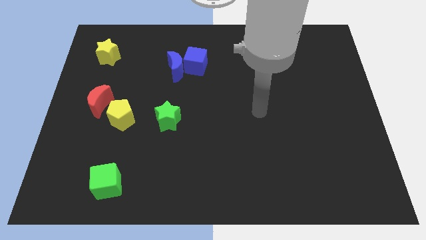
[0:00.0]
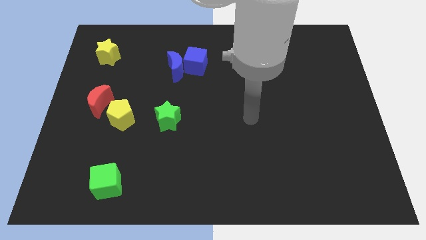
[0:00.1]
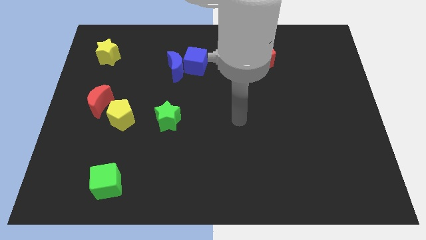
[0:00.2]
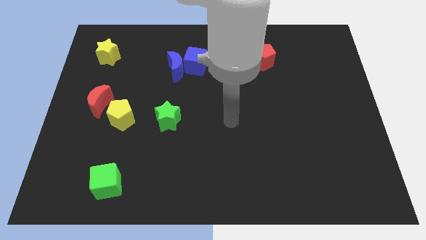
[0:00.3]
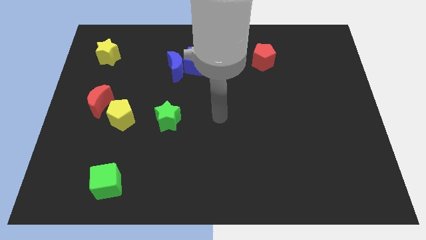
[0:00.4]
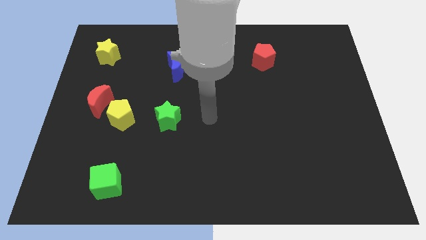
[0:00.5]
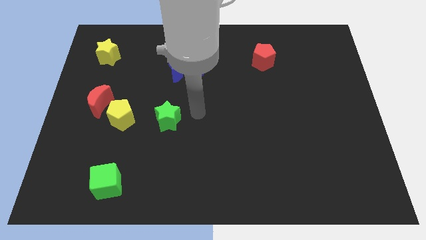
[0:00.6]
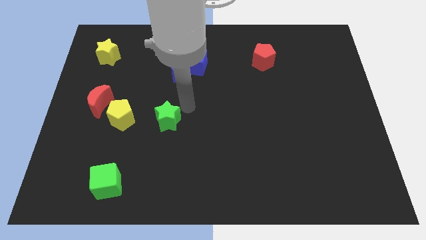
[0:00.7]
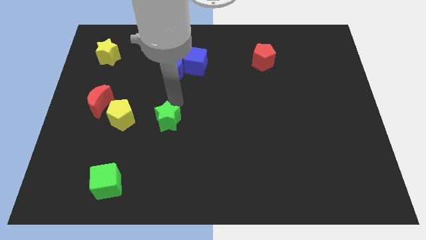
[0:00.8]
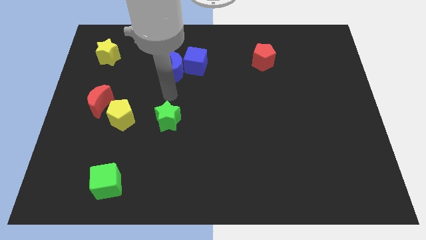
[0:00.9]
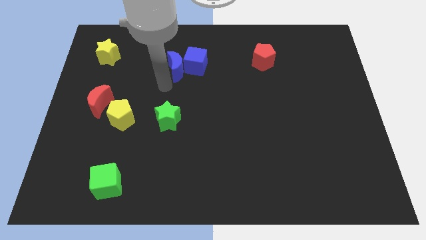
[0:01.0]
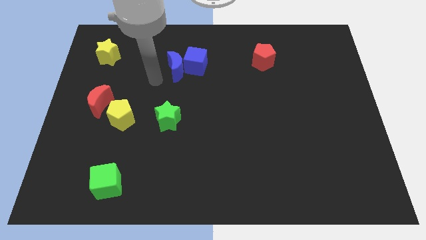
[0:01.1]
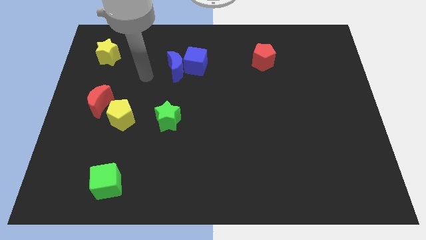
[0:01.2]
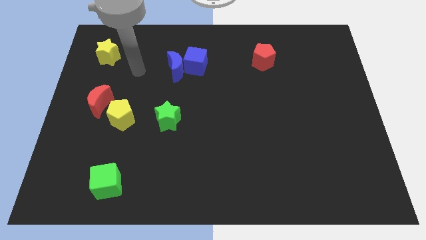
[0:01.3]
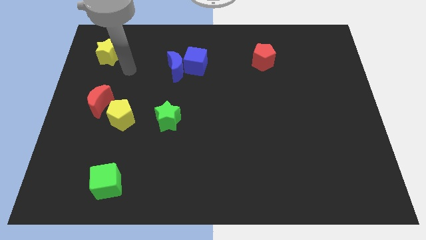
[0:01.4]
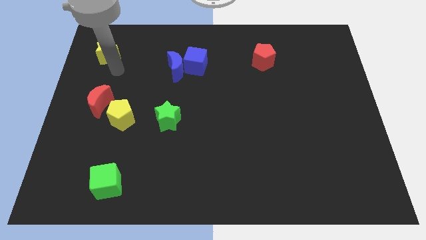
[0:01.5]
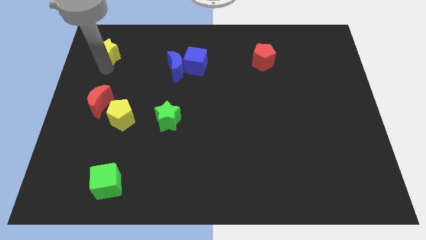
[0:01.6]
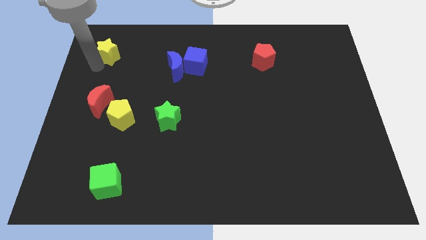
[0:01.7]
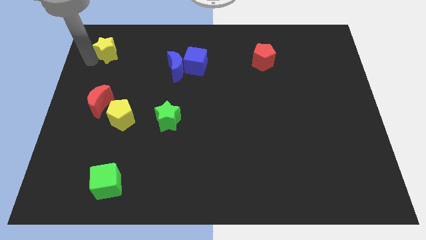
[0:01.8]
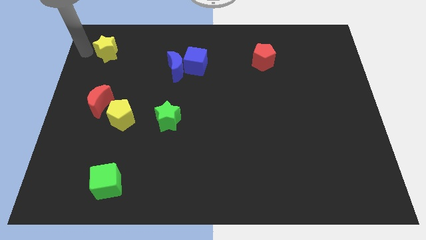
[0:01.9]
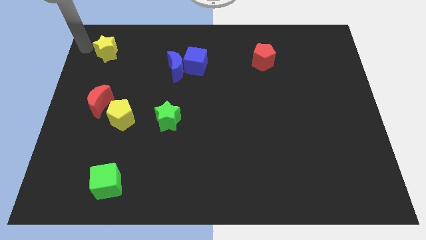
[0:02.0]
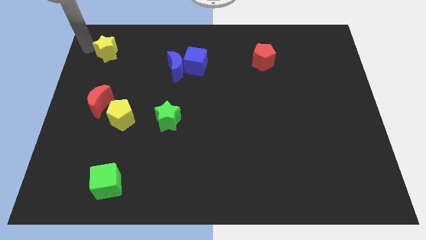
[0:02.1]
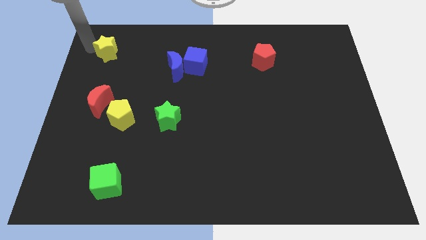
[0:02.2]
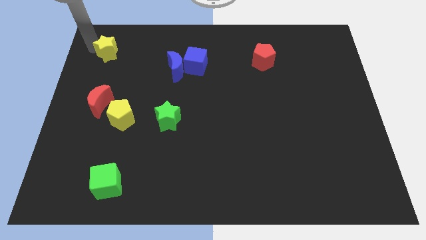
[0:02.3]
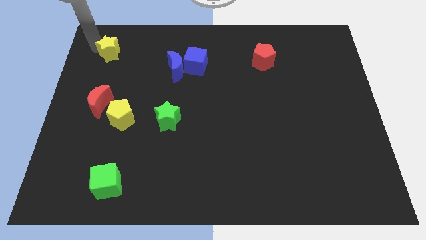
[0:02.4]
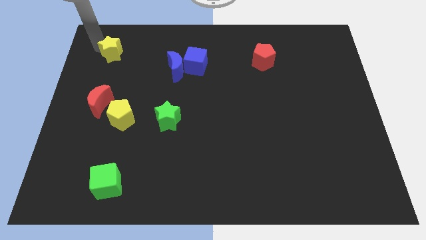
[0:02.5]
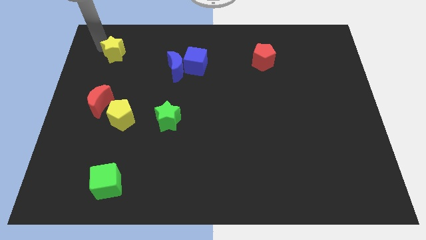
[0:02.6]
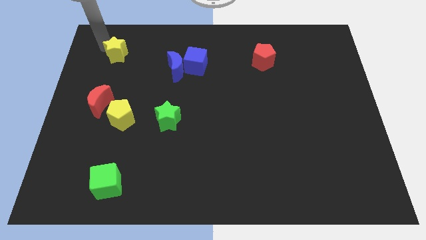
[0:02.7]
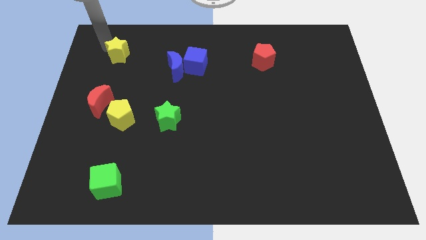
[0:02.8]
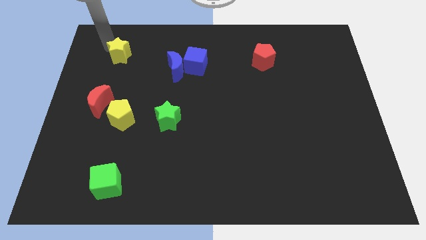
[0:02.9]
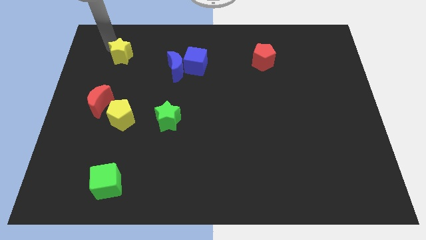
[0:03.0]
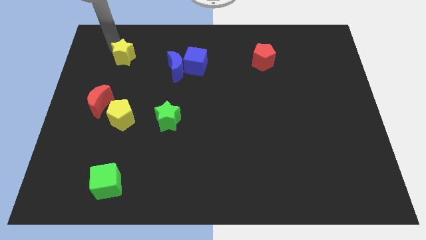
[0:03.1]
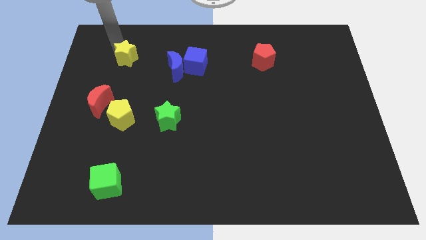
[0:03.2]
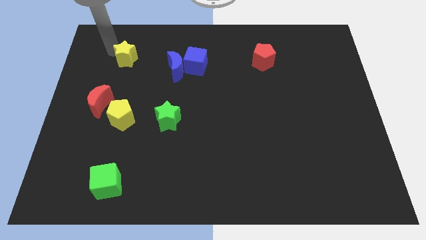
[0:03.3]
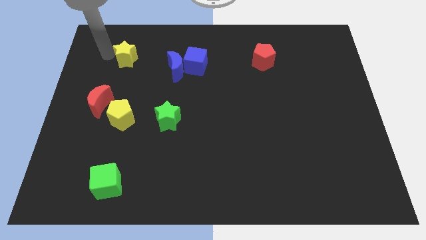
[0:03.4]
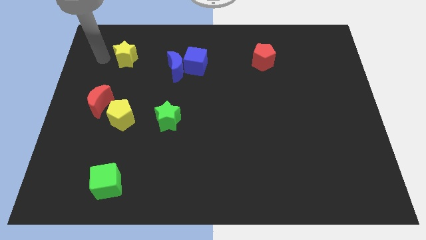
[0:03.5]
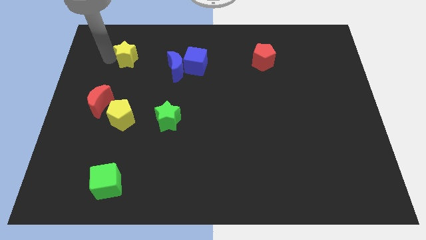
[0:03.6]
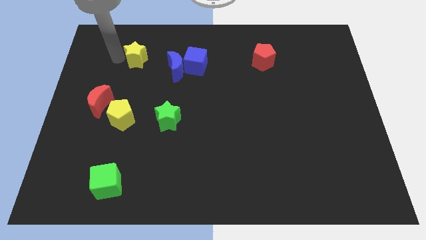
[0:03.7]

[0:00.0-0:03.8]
slide the yellow star to the right slightly

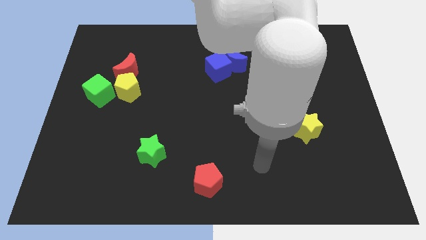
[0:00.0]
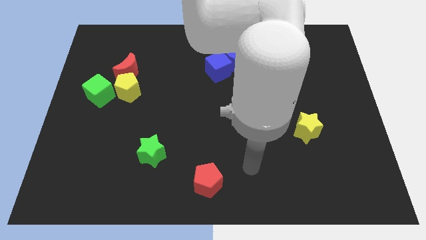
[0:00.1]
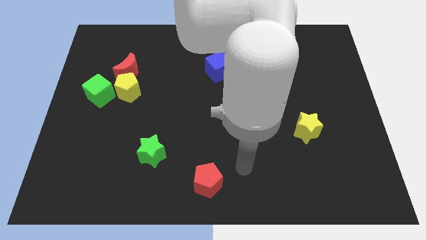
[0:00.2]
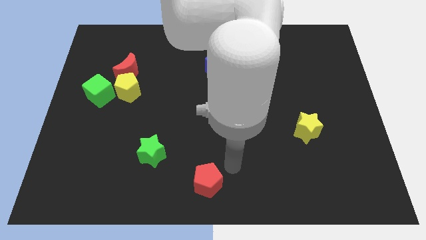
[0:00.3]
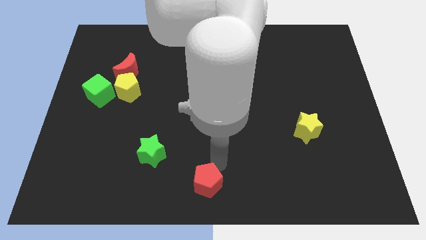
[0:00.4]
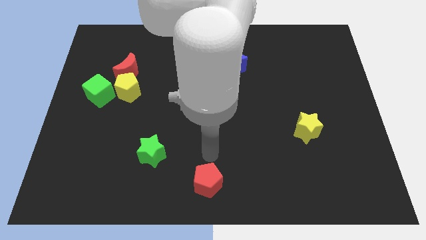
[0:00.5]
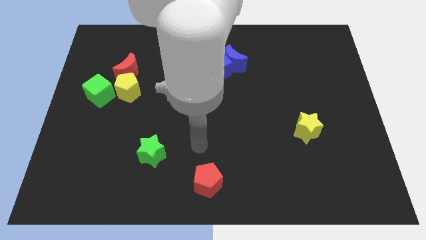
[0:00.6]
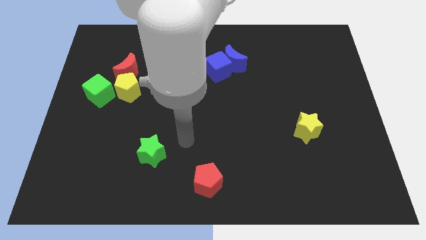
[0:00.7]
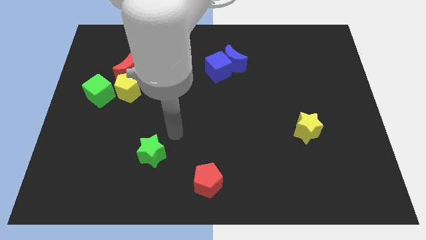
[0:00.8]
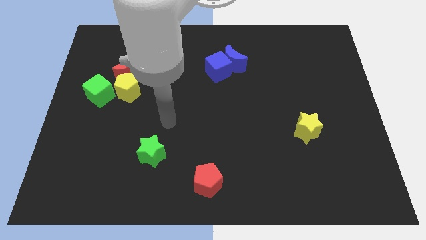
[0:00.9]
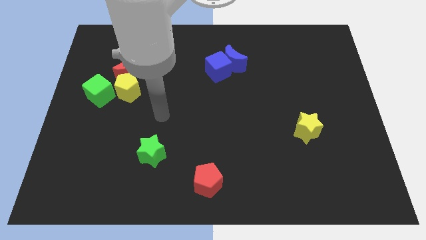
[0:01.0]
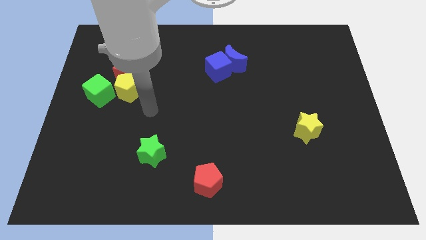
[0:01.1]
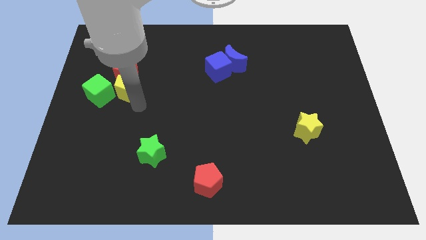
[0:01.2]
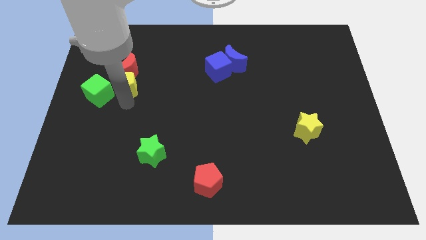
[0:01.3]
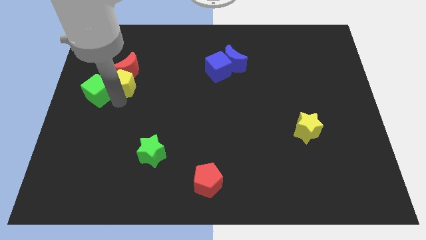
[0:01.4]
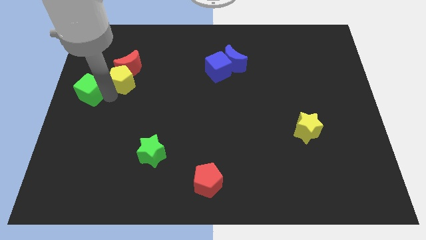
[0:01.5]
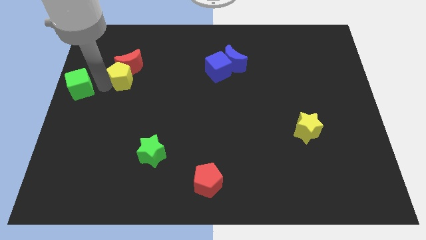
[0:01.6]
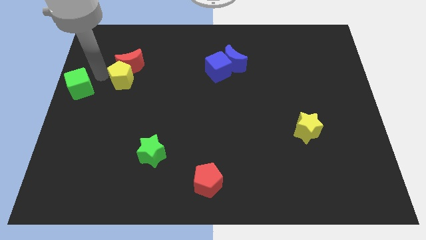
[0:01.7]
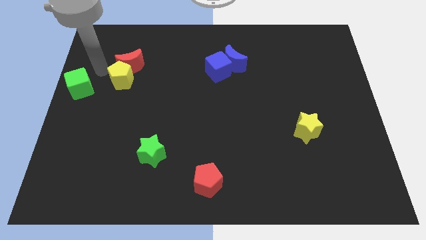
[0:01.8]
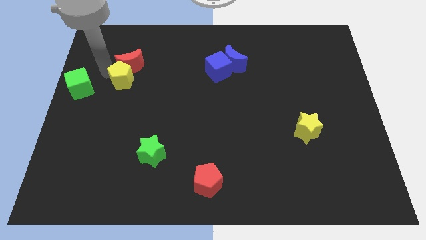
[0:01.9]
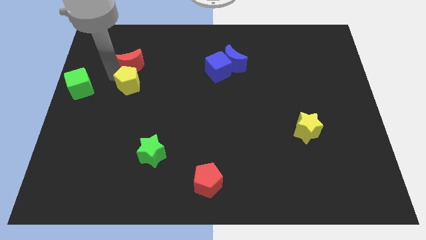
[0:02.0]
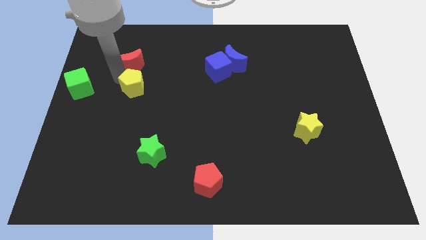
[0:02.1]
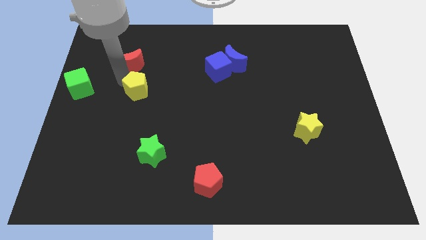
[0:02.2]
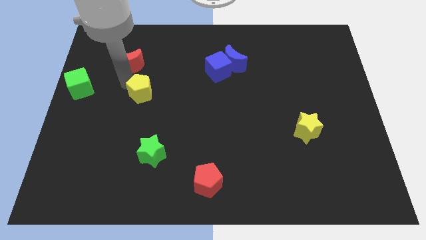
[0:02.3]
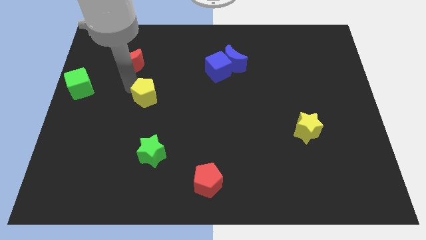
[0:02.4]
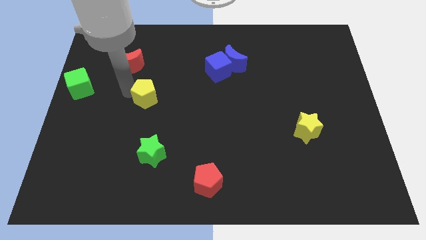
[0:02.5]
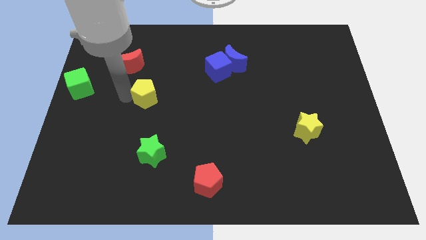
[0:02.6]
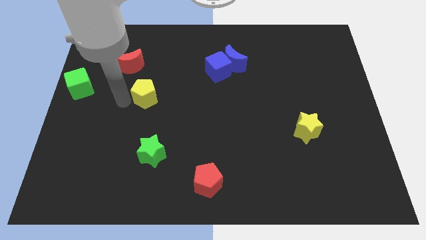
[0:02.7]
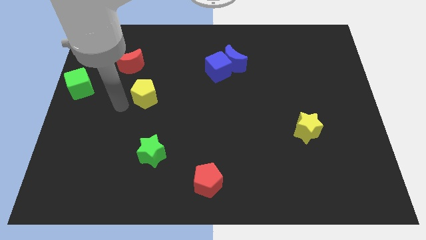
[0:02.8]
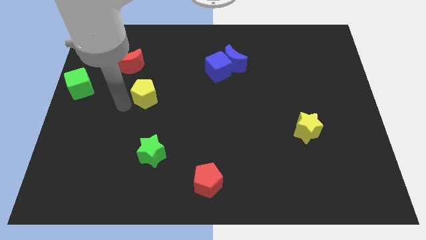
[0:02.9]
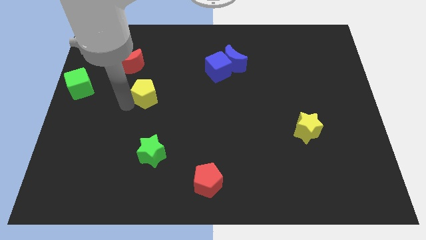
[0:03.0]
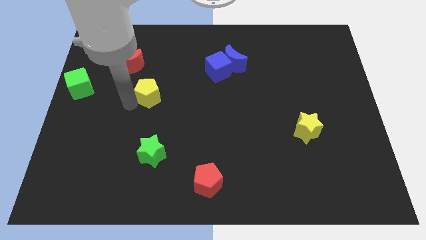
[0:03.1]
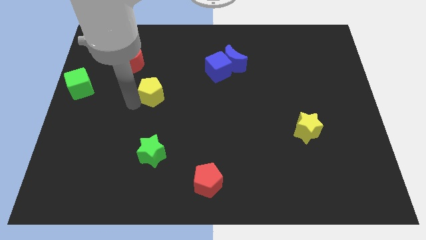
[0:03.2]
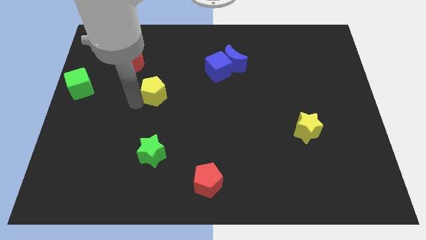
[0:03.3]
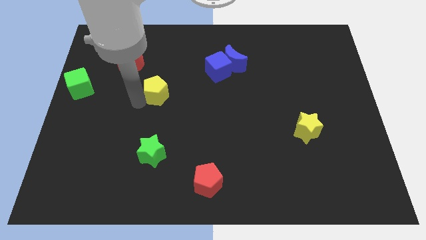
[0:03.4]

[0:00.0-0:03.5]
push the yellow pentagon a little bit right

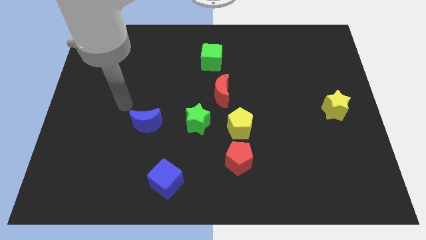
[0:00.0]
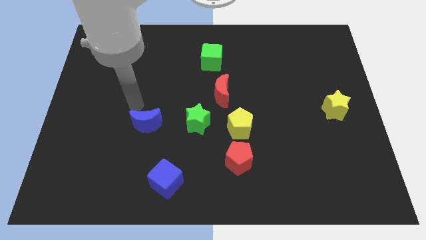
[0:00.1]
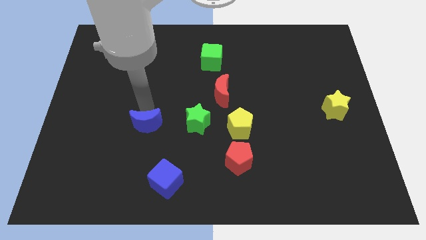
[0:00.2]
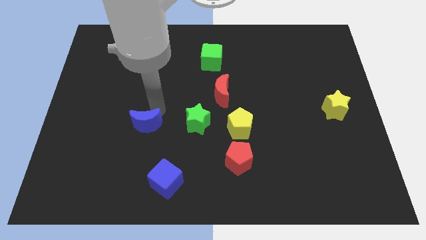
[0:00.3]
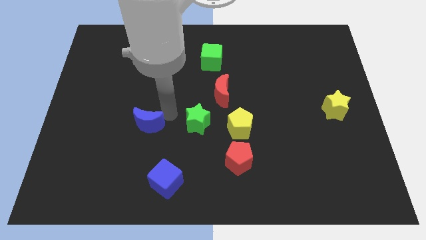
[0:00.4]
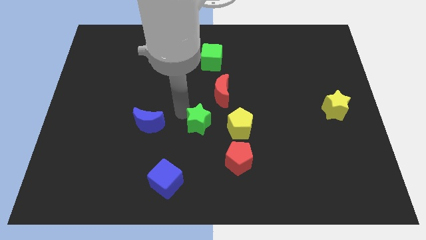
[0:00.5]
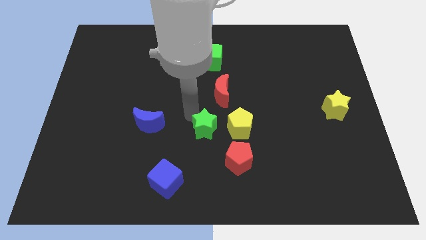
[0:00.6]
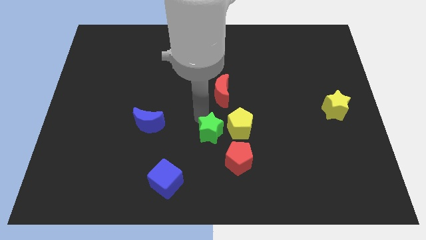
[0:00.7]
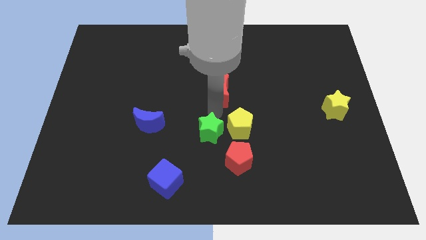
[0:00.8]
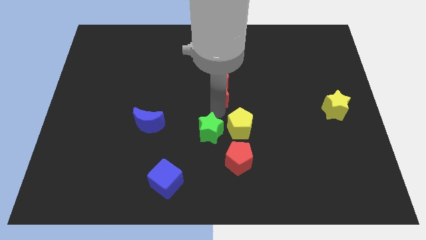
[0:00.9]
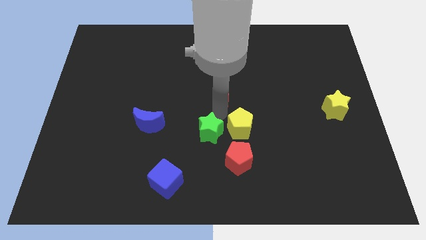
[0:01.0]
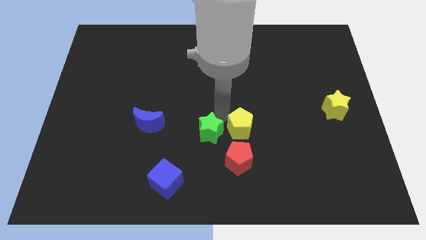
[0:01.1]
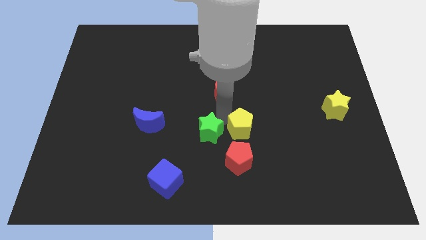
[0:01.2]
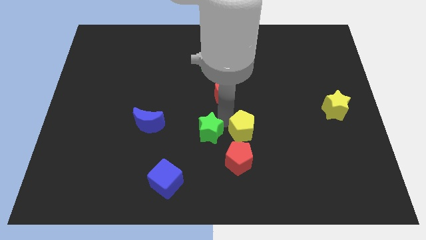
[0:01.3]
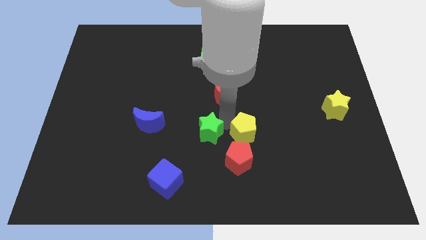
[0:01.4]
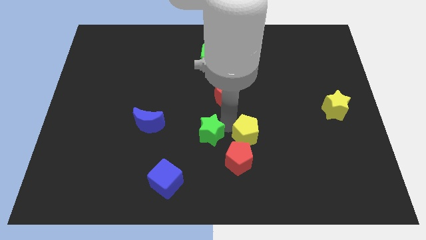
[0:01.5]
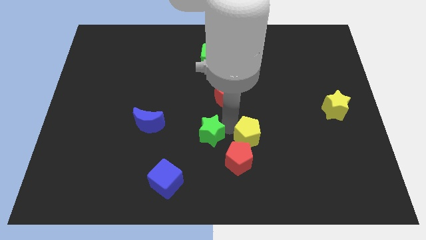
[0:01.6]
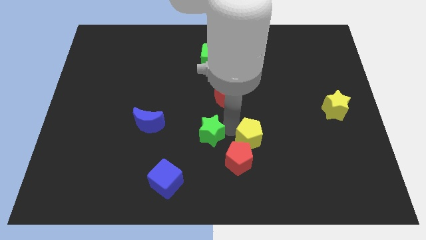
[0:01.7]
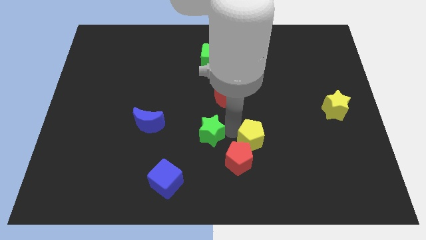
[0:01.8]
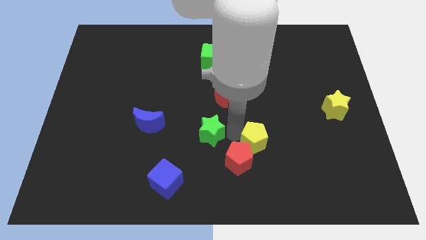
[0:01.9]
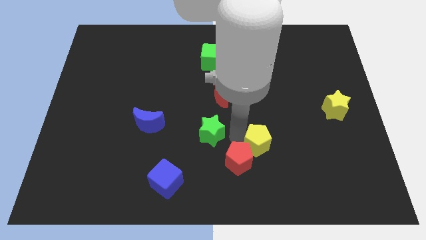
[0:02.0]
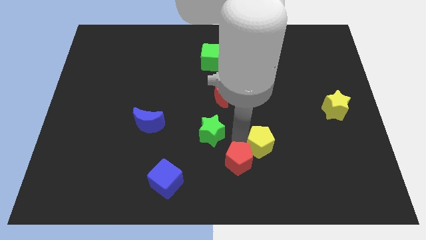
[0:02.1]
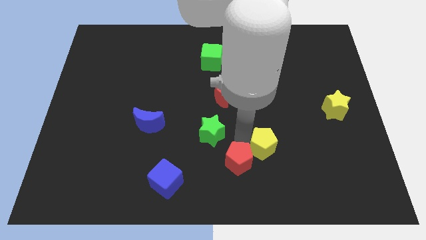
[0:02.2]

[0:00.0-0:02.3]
slide the yellow pentagon down and to the right slightly
